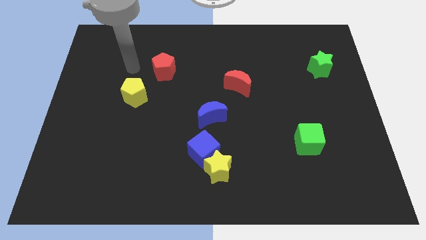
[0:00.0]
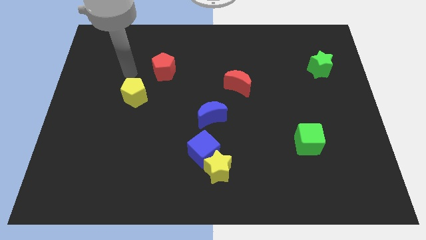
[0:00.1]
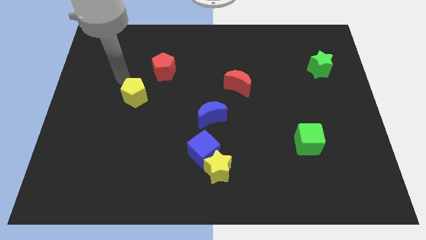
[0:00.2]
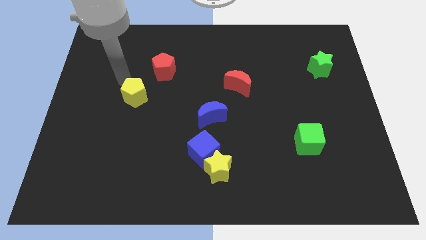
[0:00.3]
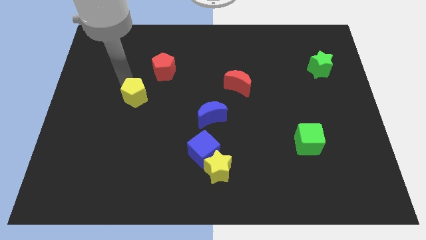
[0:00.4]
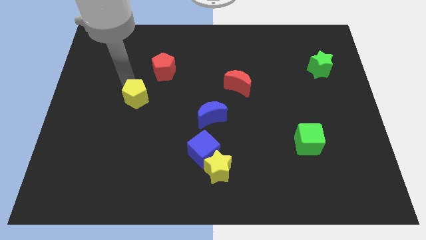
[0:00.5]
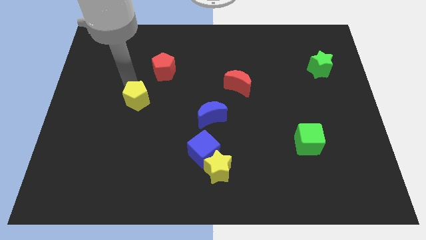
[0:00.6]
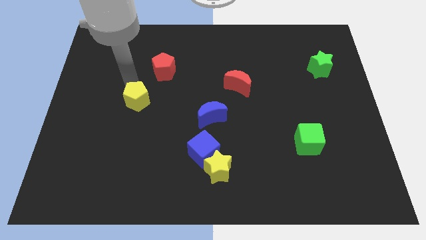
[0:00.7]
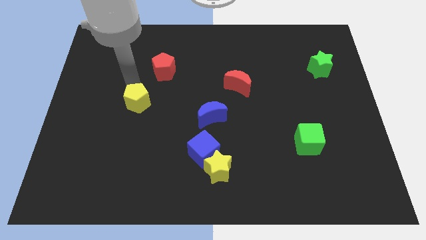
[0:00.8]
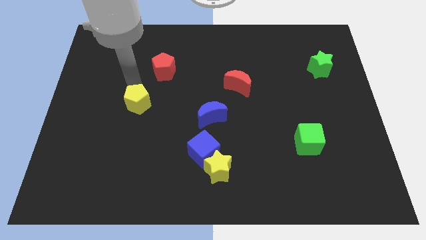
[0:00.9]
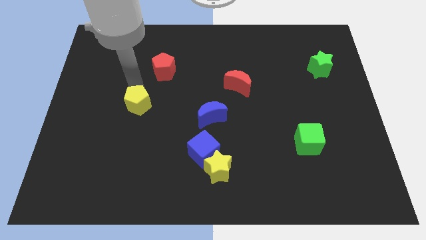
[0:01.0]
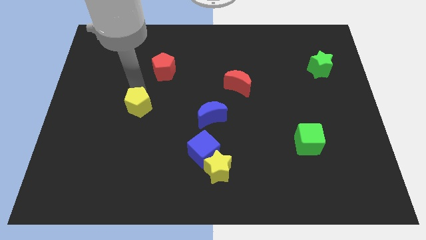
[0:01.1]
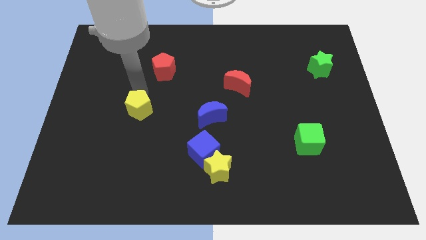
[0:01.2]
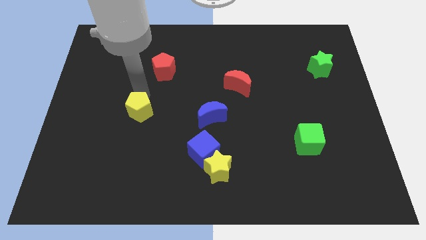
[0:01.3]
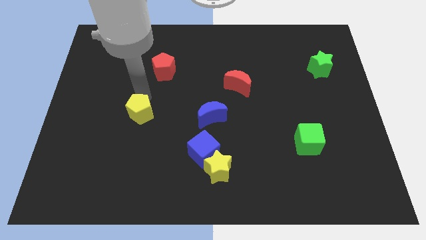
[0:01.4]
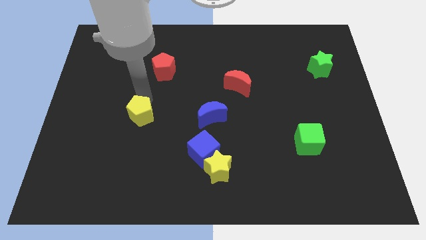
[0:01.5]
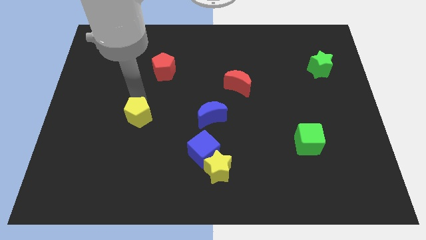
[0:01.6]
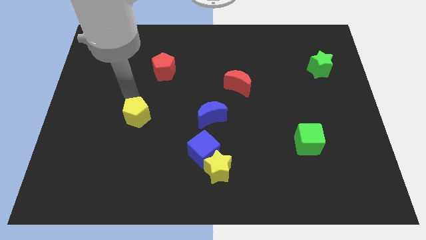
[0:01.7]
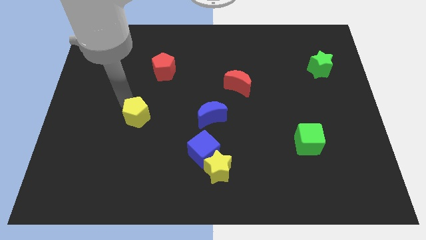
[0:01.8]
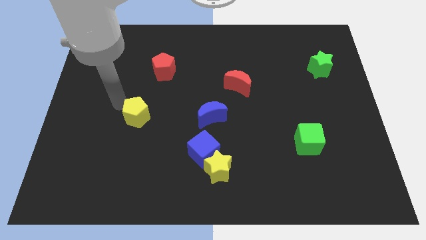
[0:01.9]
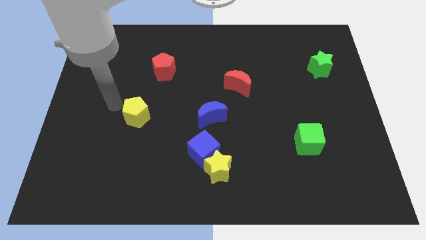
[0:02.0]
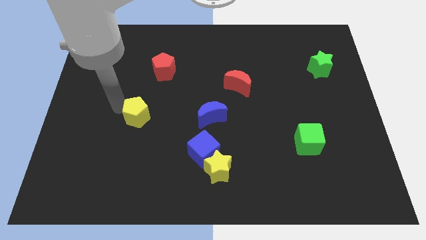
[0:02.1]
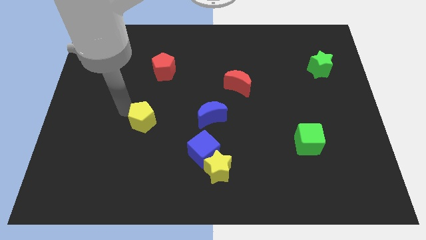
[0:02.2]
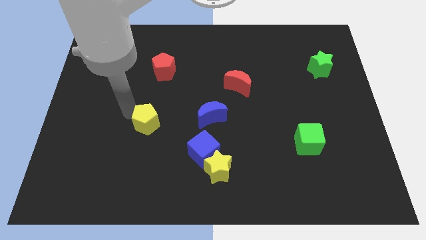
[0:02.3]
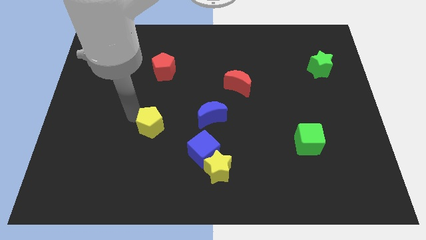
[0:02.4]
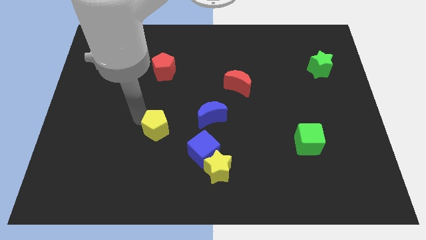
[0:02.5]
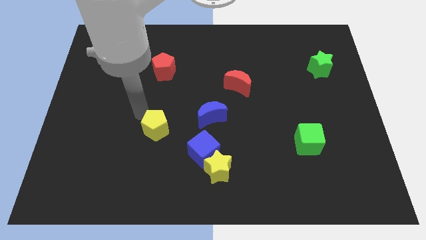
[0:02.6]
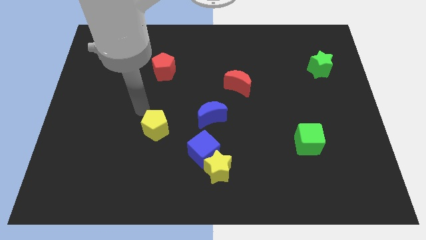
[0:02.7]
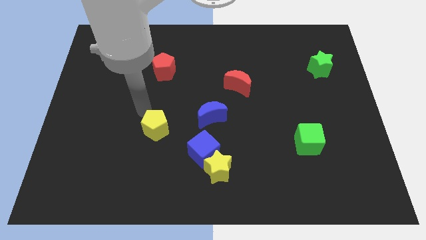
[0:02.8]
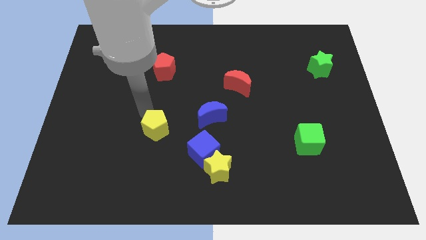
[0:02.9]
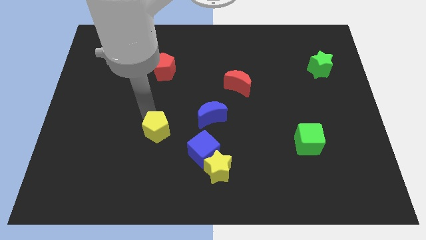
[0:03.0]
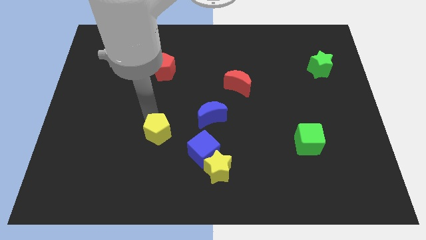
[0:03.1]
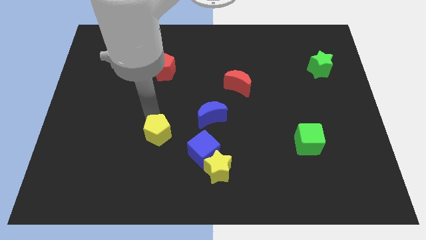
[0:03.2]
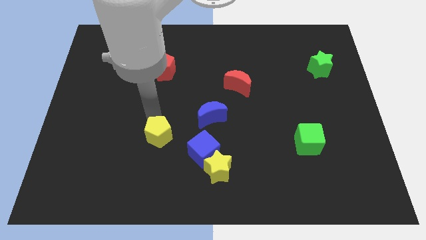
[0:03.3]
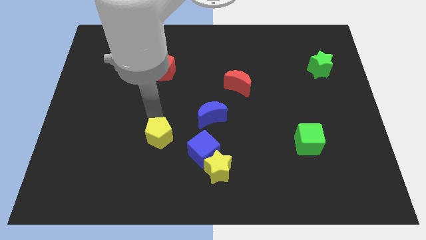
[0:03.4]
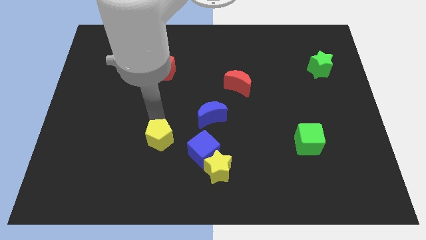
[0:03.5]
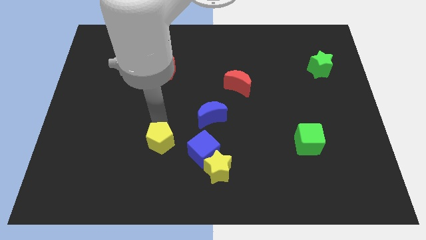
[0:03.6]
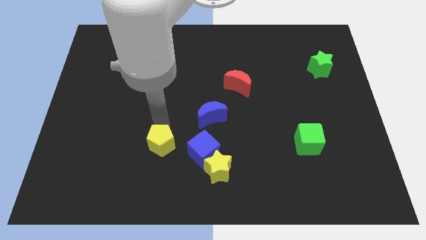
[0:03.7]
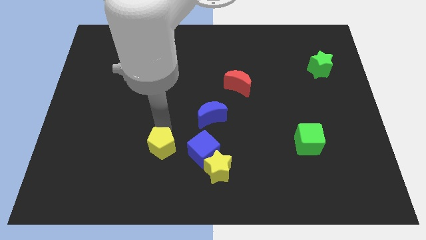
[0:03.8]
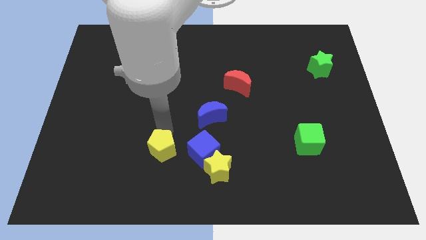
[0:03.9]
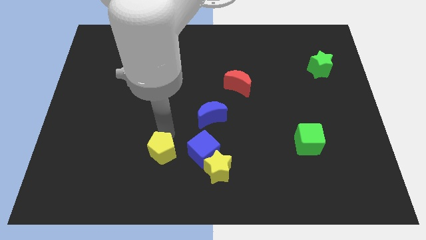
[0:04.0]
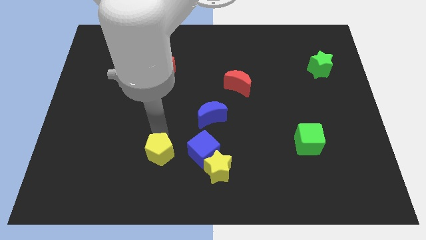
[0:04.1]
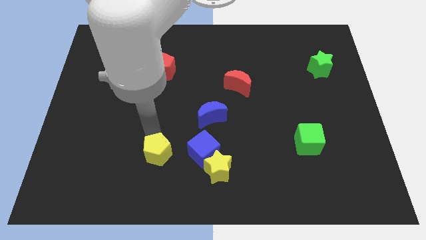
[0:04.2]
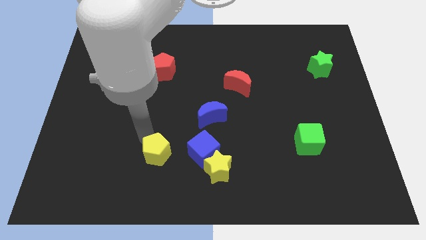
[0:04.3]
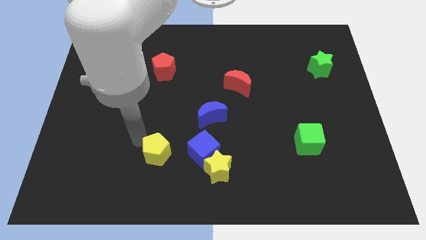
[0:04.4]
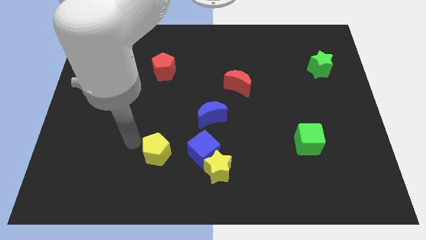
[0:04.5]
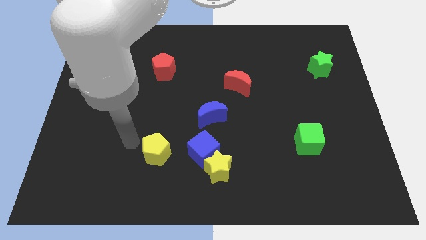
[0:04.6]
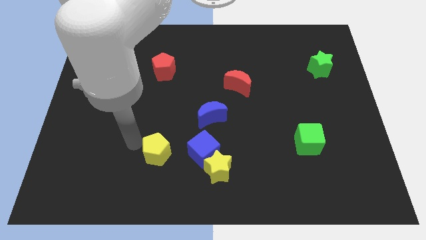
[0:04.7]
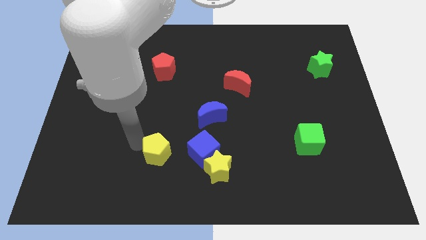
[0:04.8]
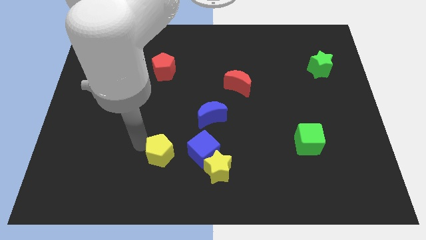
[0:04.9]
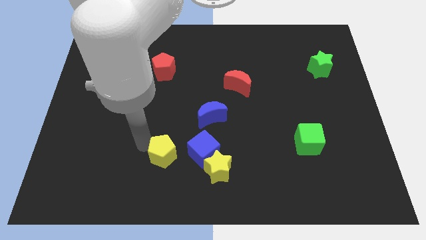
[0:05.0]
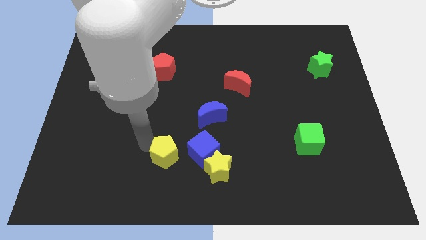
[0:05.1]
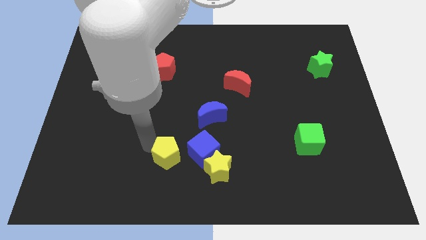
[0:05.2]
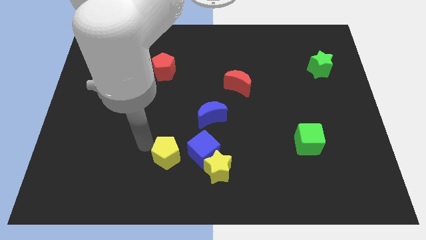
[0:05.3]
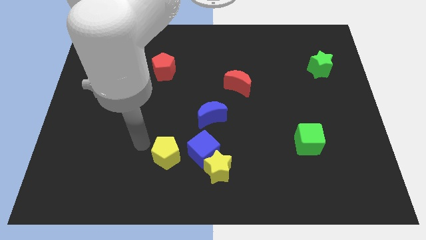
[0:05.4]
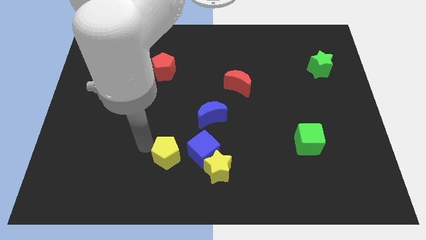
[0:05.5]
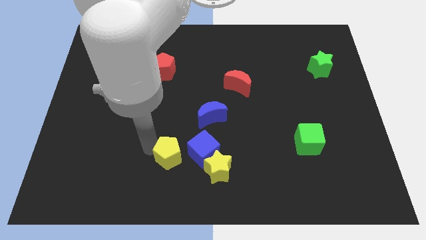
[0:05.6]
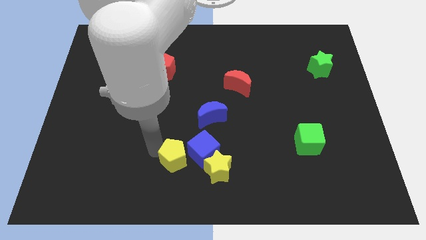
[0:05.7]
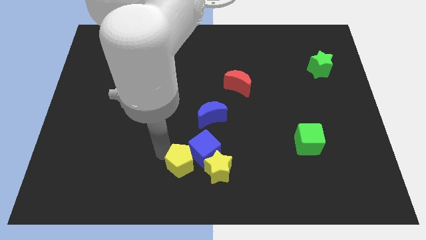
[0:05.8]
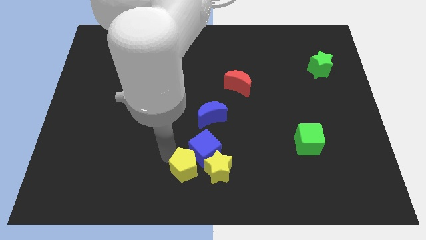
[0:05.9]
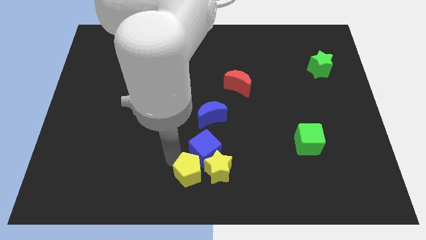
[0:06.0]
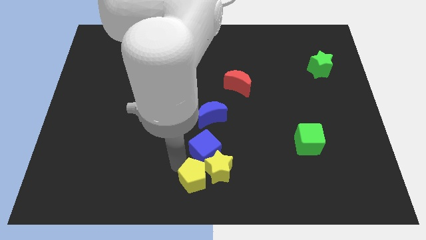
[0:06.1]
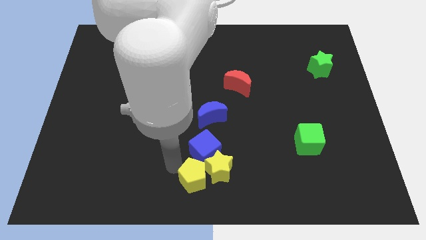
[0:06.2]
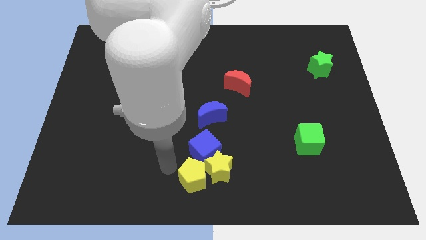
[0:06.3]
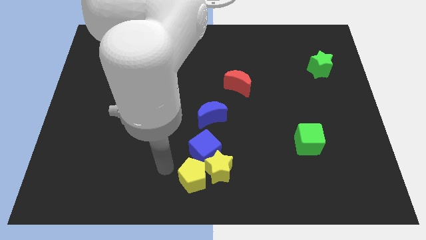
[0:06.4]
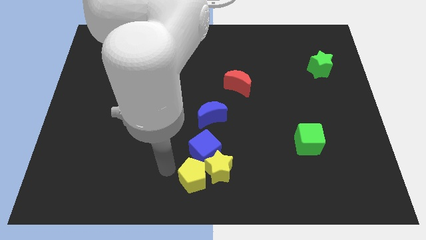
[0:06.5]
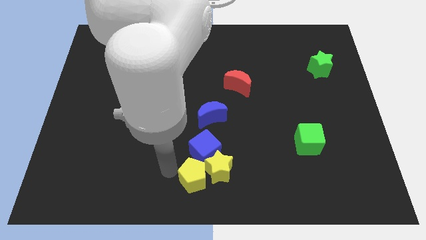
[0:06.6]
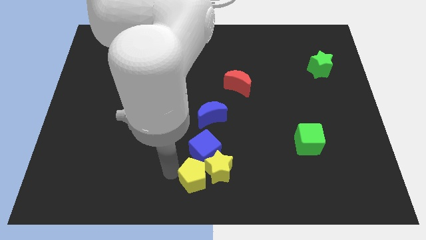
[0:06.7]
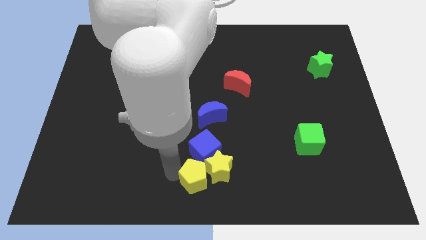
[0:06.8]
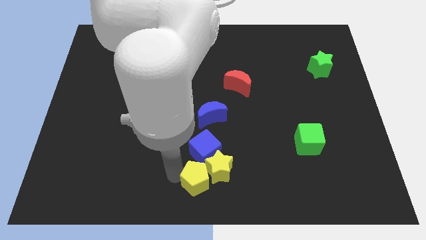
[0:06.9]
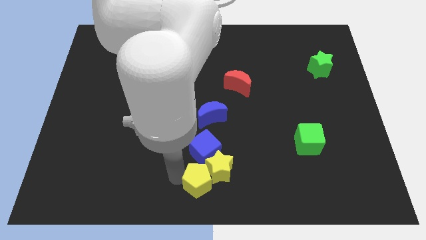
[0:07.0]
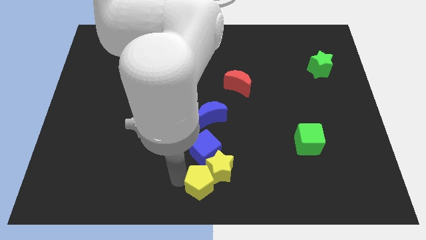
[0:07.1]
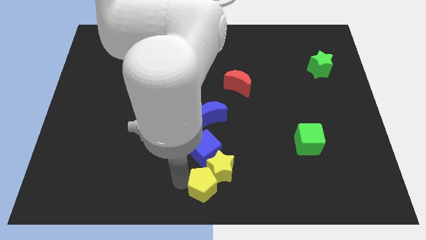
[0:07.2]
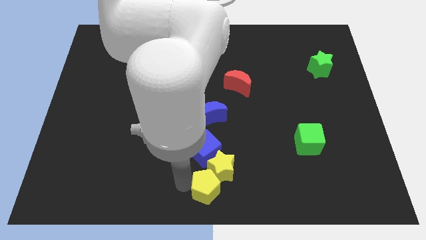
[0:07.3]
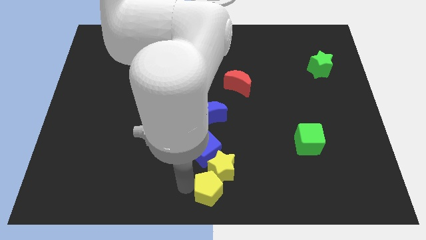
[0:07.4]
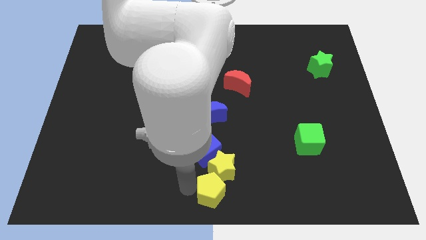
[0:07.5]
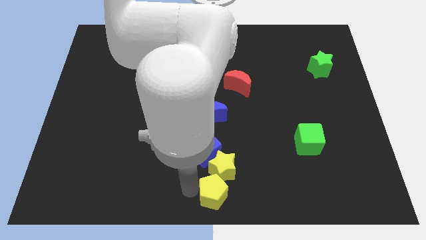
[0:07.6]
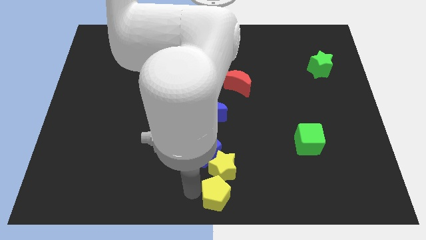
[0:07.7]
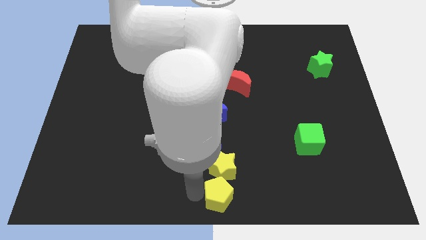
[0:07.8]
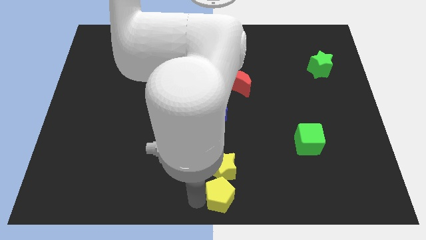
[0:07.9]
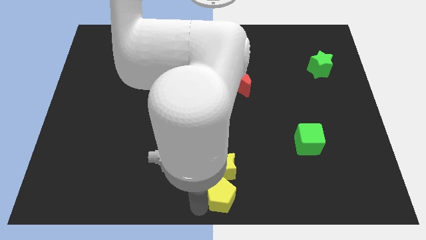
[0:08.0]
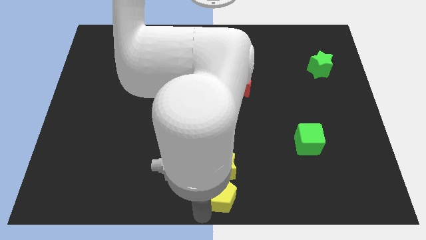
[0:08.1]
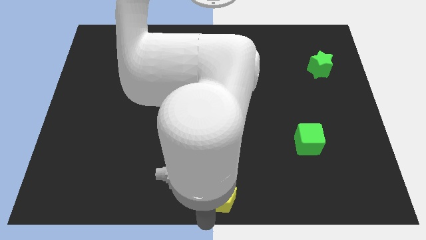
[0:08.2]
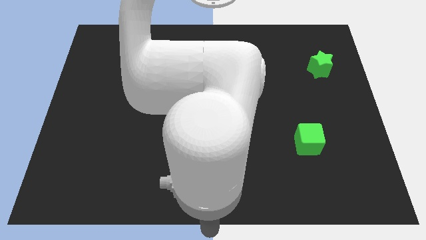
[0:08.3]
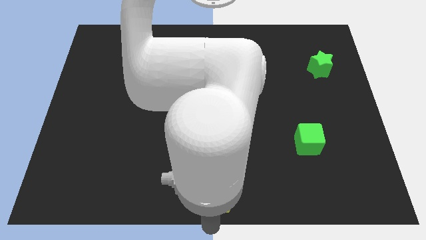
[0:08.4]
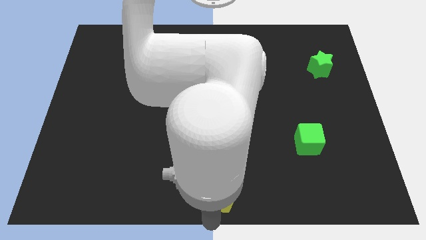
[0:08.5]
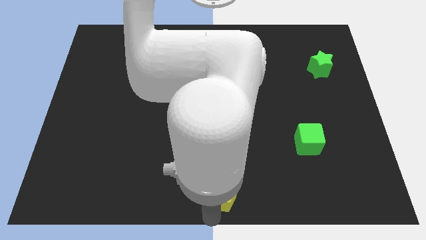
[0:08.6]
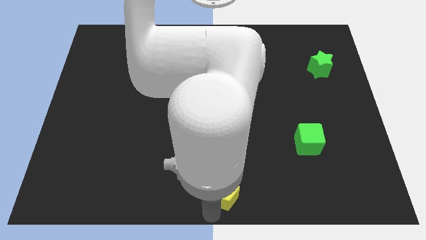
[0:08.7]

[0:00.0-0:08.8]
move the yellow pentagon to the bottom right side of the blue cube
